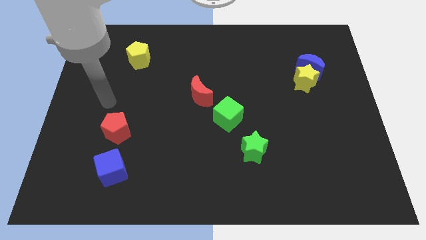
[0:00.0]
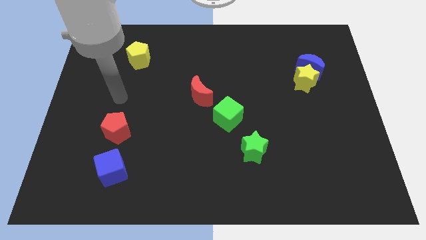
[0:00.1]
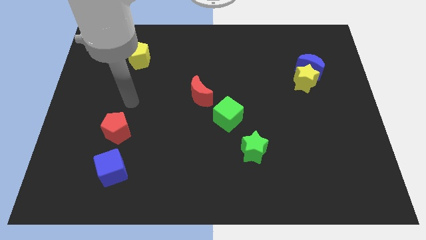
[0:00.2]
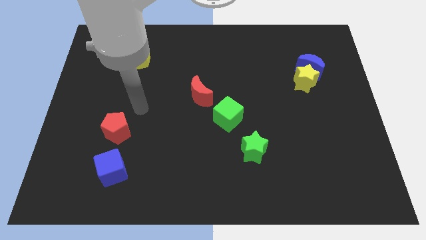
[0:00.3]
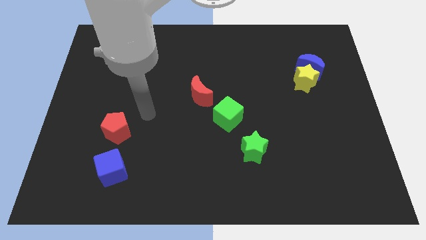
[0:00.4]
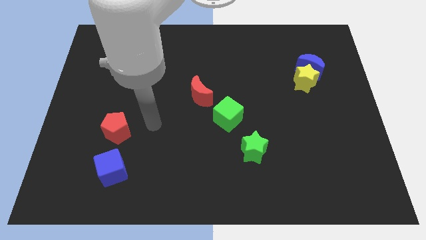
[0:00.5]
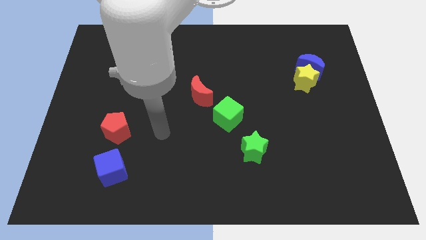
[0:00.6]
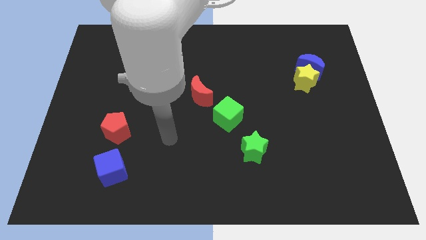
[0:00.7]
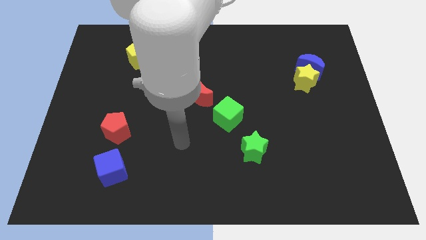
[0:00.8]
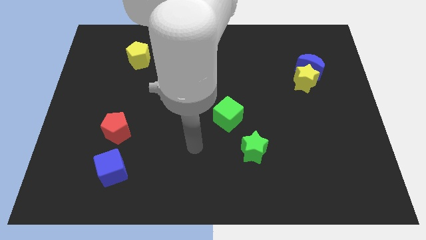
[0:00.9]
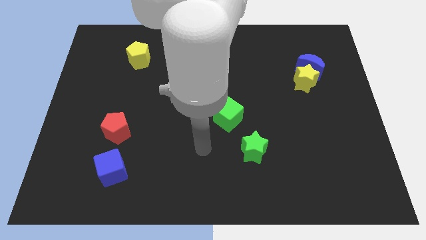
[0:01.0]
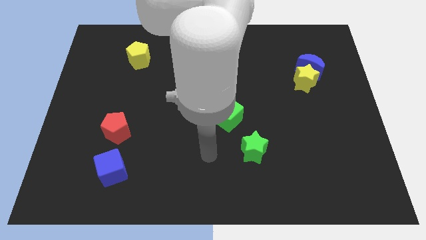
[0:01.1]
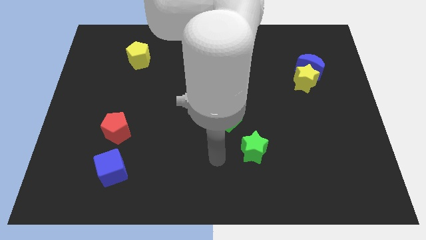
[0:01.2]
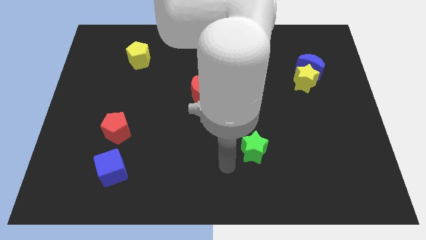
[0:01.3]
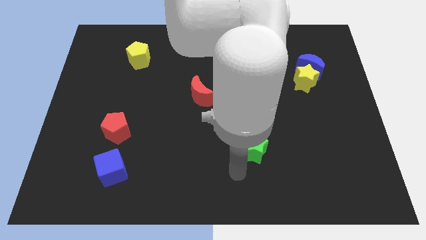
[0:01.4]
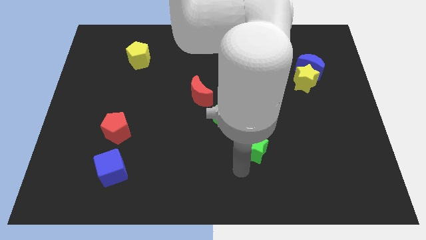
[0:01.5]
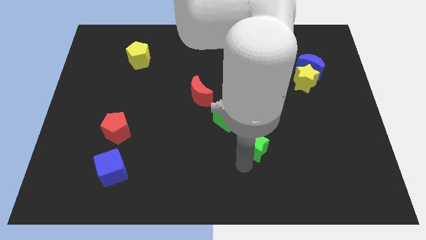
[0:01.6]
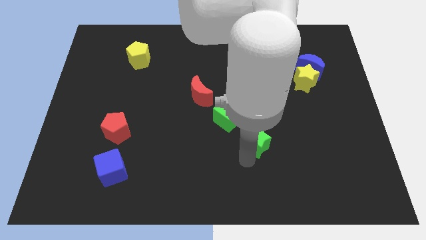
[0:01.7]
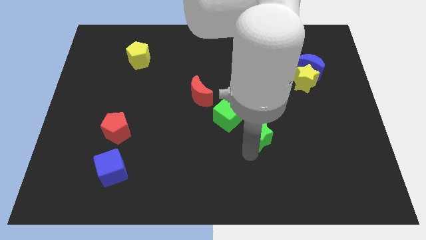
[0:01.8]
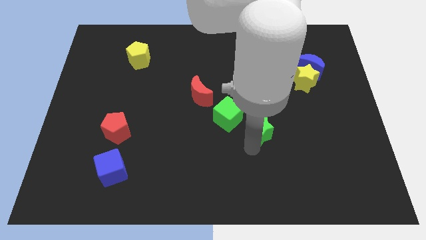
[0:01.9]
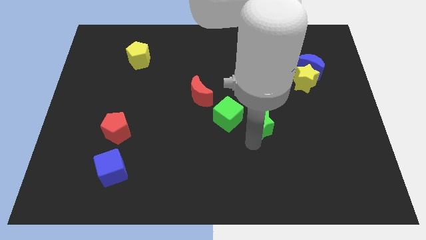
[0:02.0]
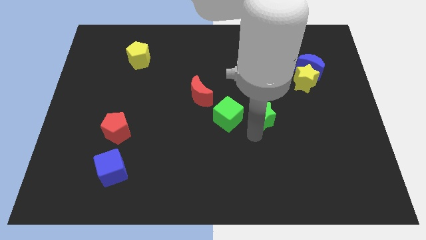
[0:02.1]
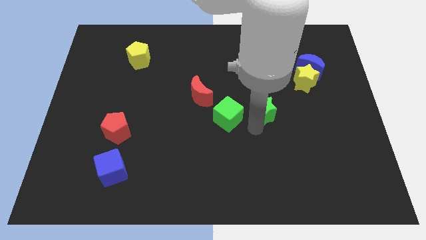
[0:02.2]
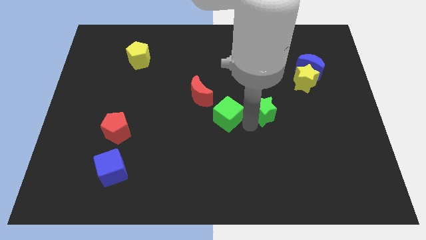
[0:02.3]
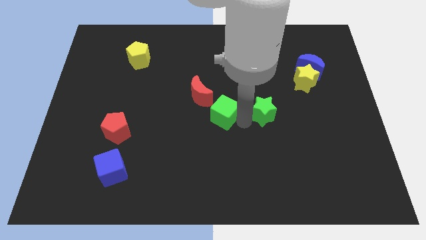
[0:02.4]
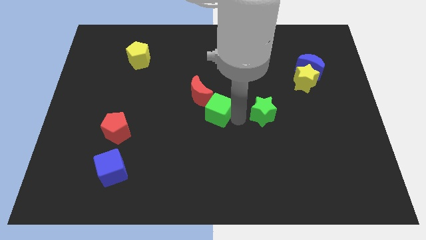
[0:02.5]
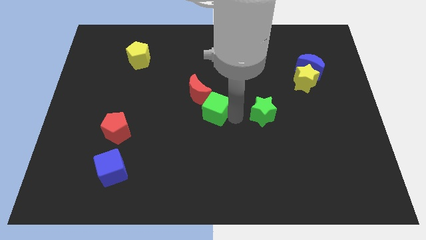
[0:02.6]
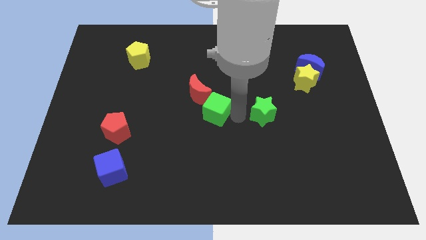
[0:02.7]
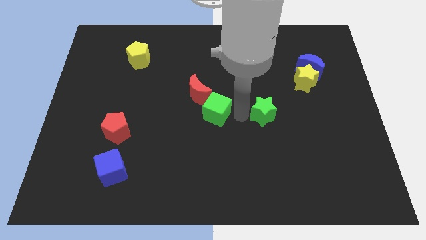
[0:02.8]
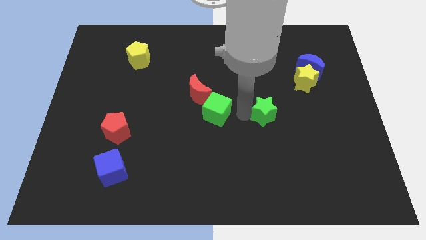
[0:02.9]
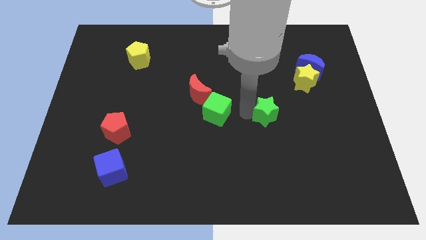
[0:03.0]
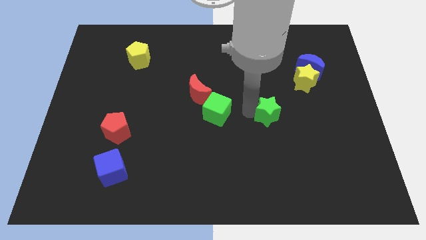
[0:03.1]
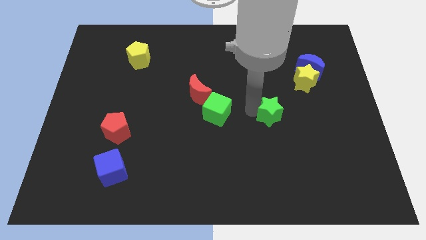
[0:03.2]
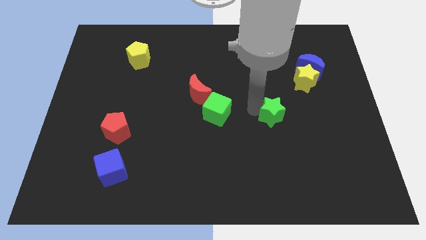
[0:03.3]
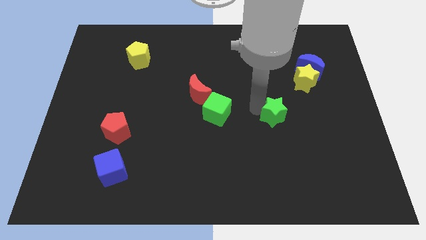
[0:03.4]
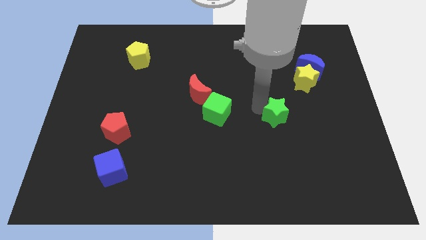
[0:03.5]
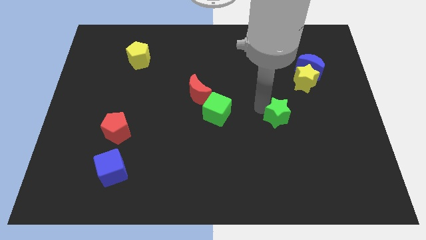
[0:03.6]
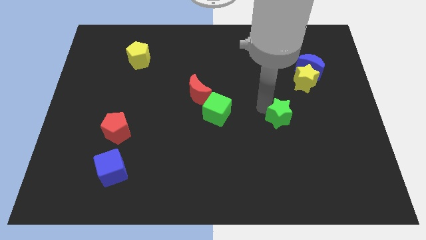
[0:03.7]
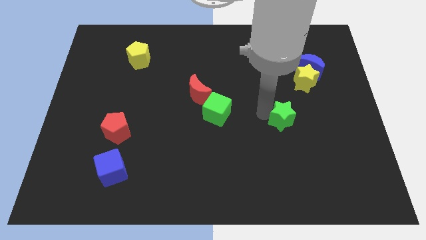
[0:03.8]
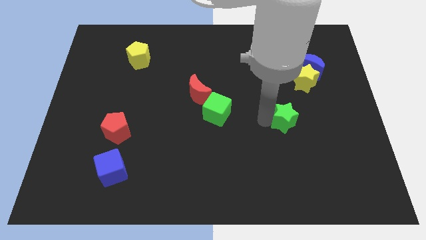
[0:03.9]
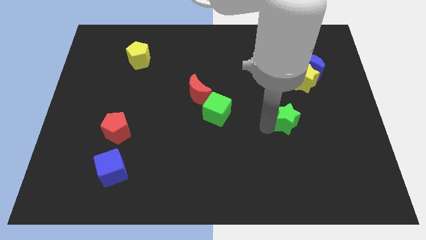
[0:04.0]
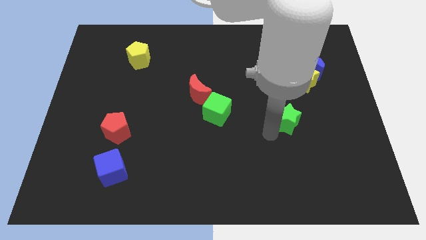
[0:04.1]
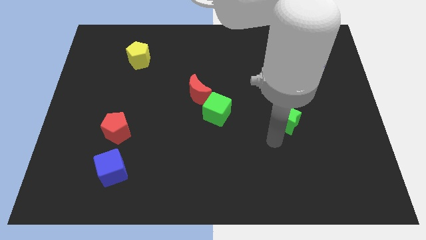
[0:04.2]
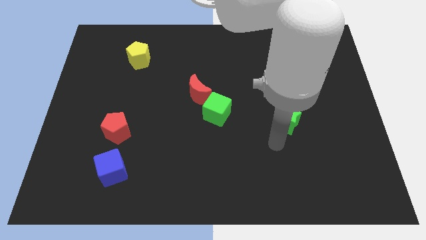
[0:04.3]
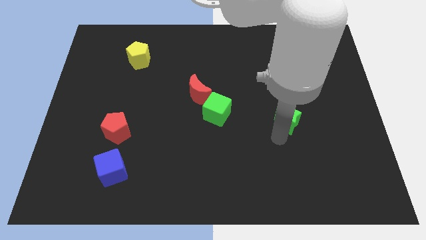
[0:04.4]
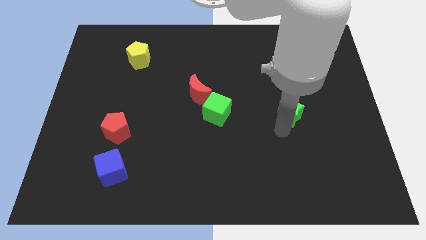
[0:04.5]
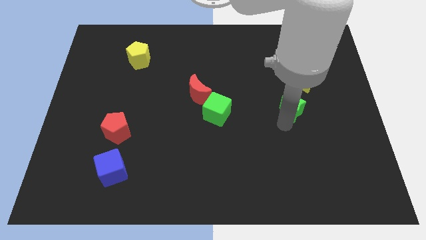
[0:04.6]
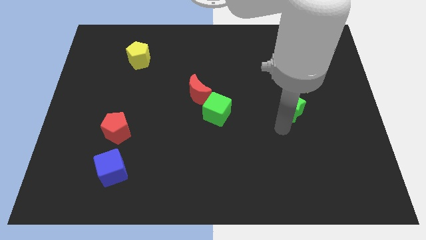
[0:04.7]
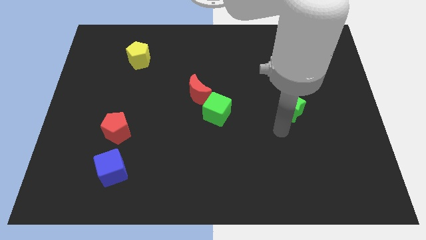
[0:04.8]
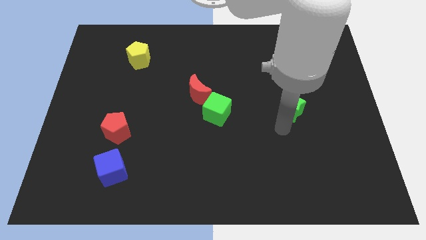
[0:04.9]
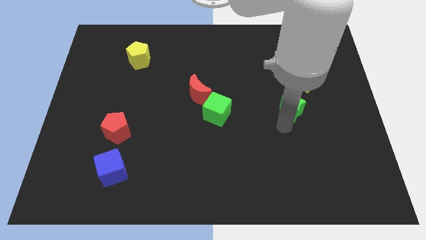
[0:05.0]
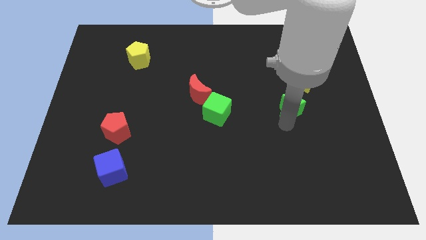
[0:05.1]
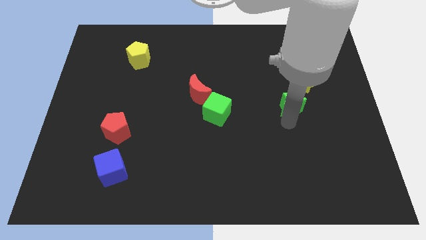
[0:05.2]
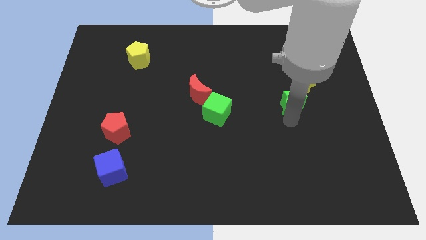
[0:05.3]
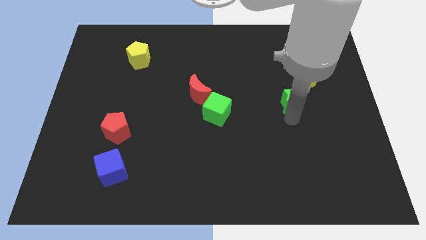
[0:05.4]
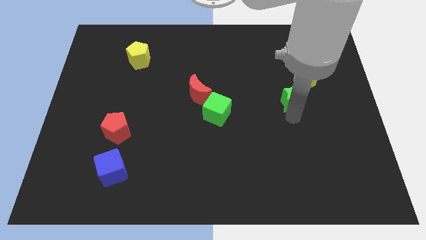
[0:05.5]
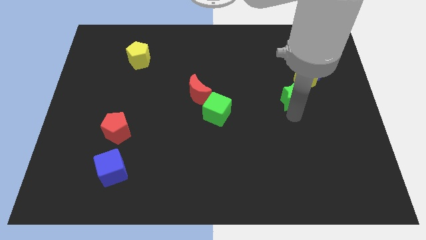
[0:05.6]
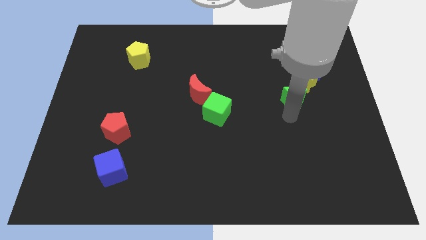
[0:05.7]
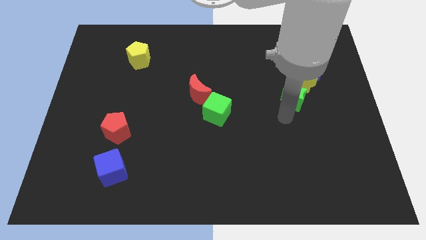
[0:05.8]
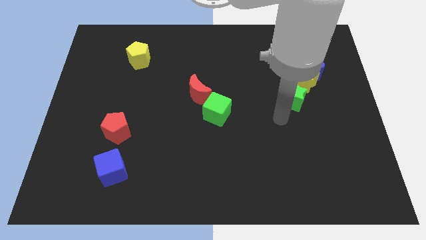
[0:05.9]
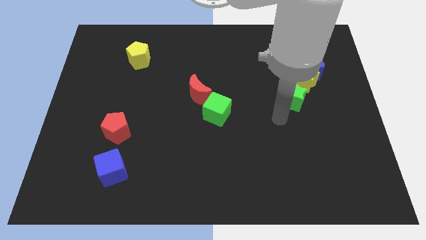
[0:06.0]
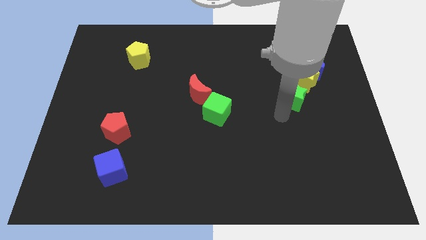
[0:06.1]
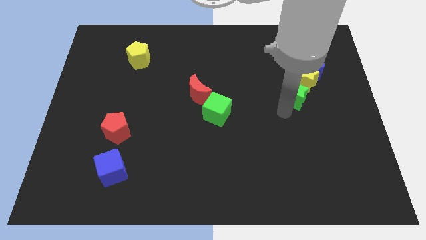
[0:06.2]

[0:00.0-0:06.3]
move the green star towards the yellow star
